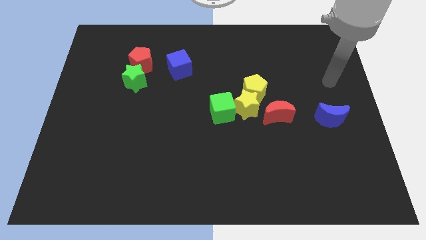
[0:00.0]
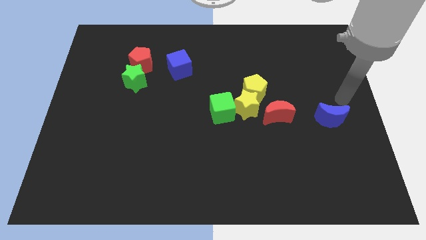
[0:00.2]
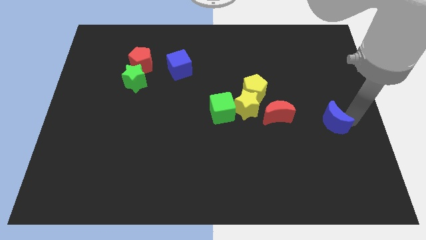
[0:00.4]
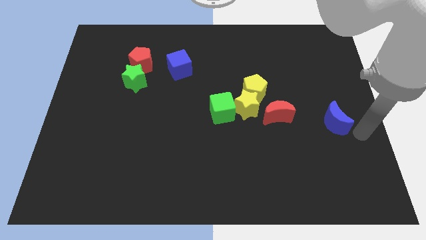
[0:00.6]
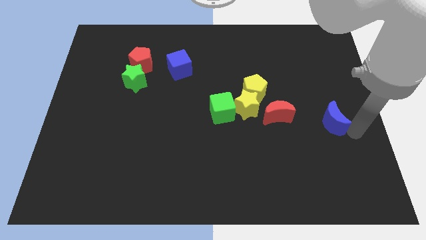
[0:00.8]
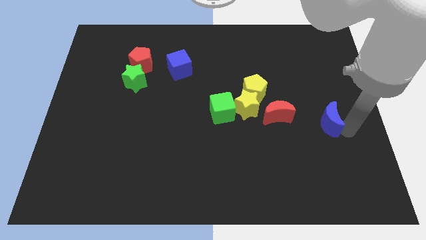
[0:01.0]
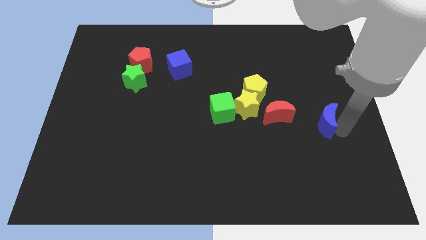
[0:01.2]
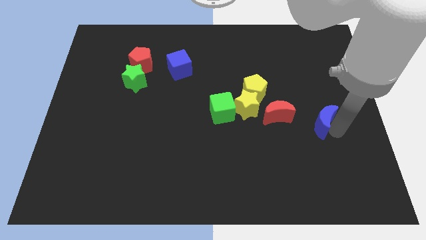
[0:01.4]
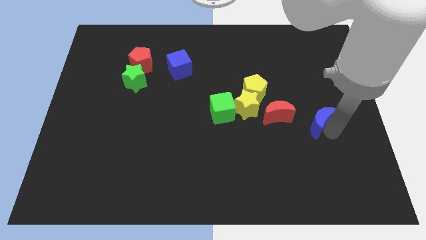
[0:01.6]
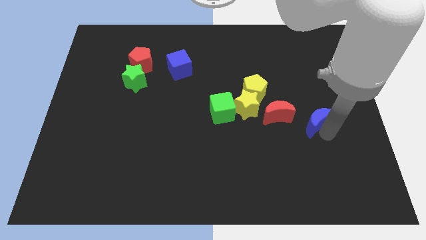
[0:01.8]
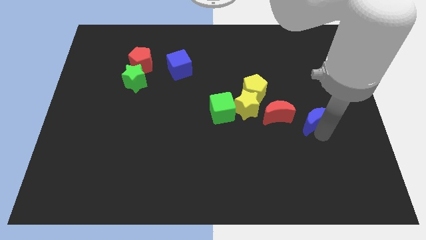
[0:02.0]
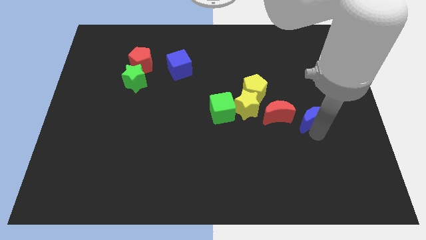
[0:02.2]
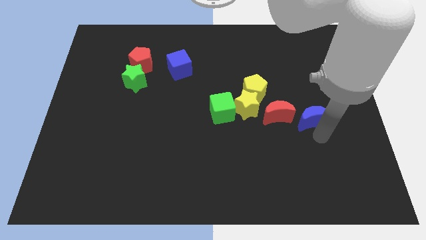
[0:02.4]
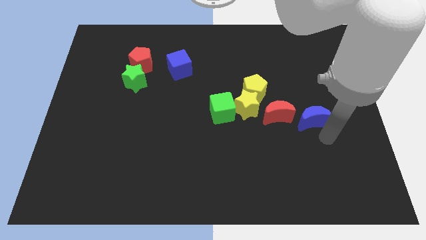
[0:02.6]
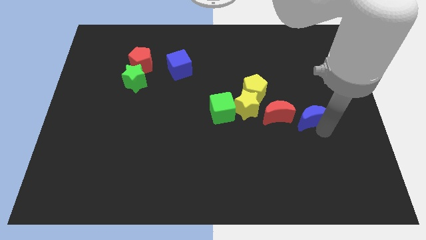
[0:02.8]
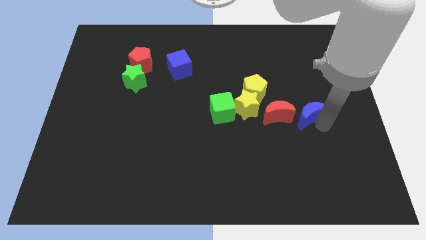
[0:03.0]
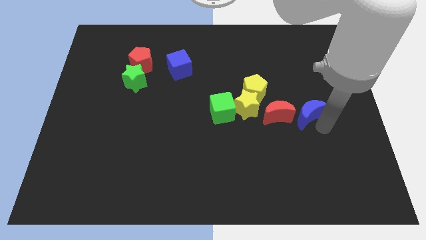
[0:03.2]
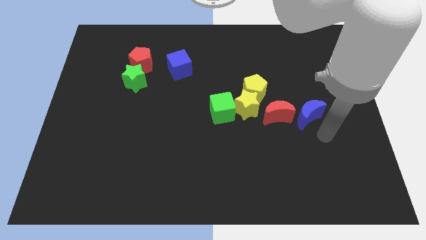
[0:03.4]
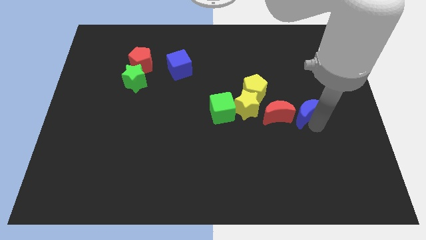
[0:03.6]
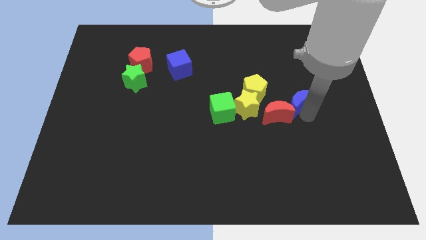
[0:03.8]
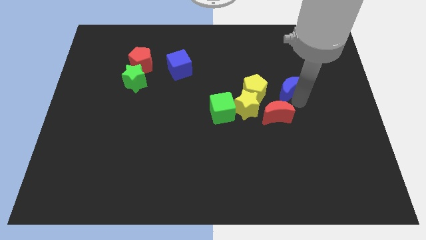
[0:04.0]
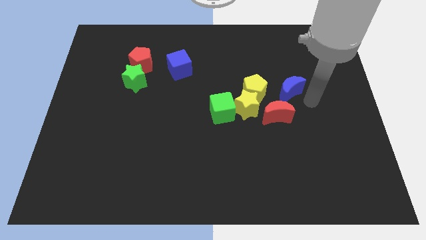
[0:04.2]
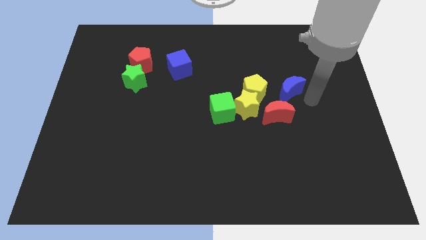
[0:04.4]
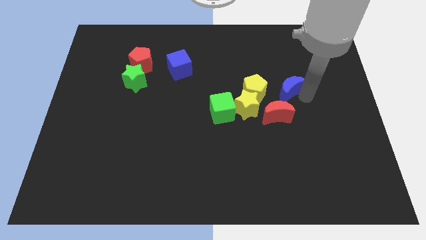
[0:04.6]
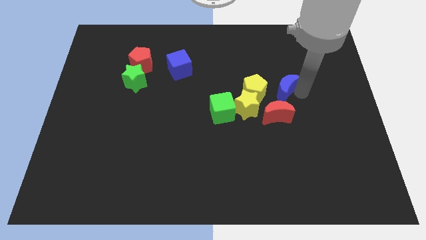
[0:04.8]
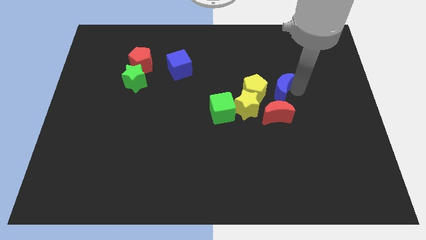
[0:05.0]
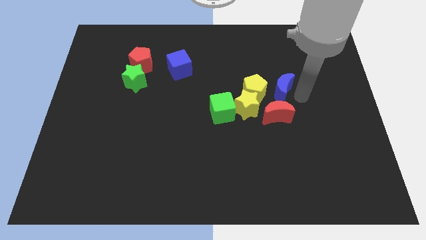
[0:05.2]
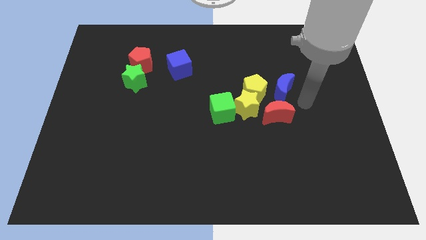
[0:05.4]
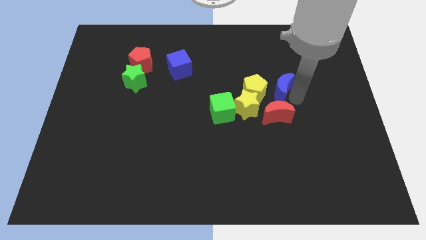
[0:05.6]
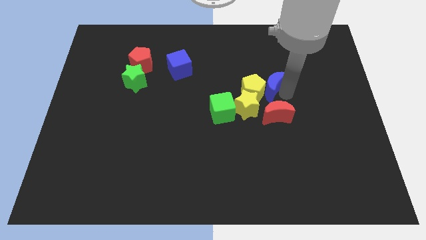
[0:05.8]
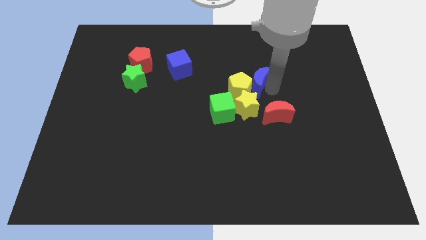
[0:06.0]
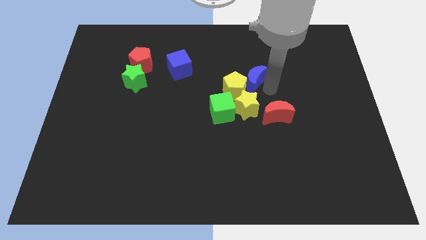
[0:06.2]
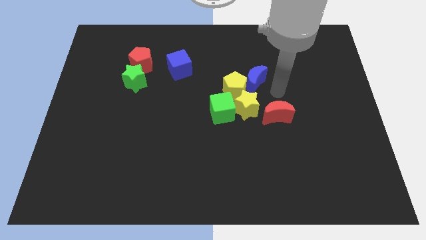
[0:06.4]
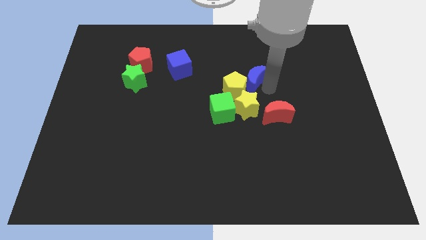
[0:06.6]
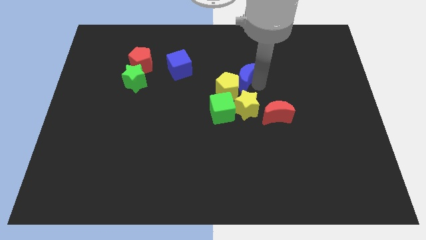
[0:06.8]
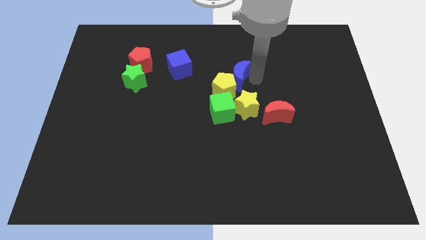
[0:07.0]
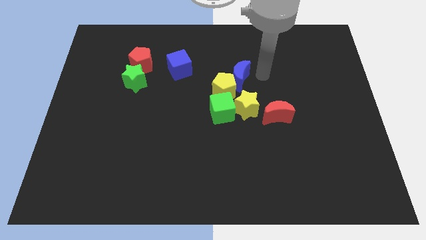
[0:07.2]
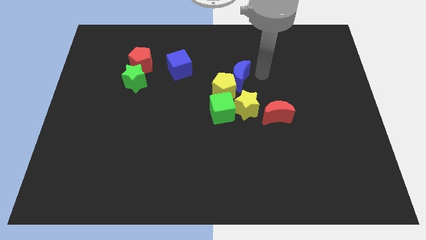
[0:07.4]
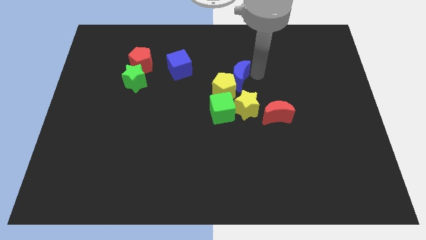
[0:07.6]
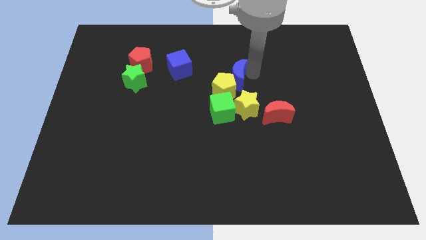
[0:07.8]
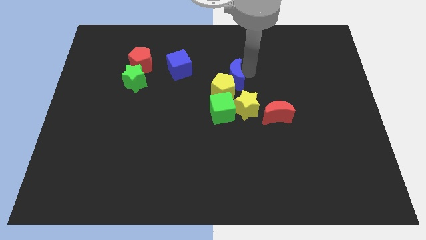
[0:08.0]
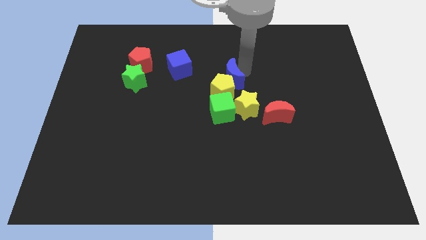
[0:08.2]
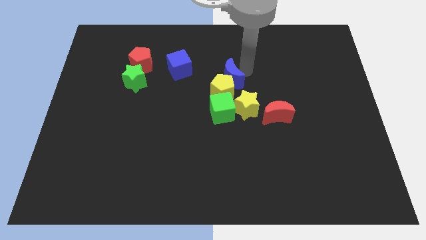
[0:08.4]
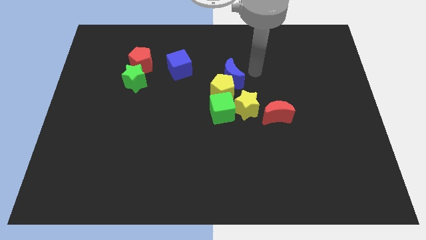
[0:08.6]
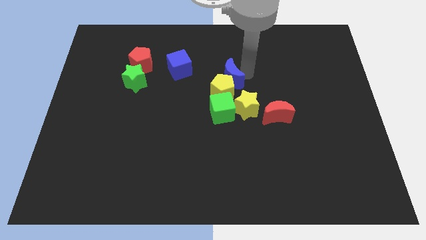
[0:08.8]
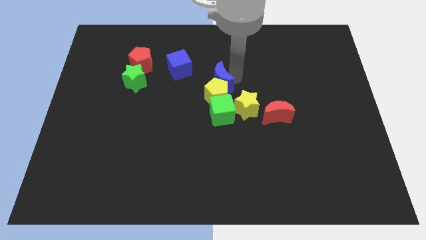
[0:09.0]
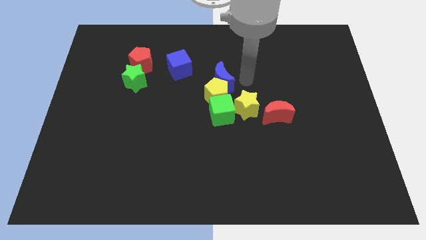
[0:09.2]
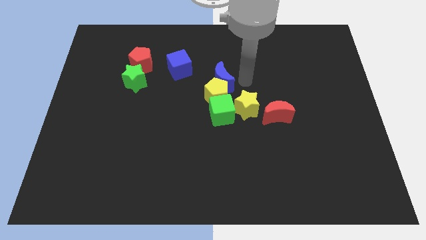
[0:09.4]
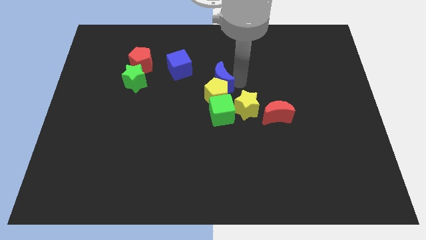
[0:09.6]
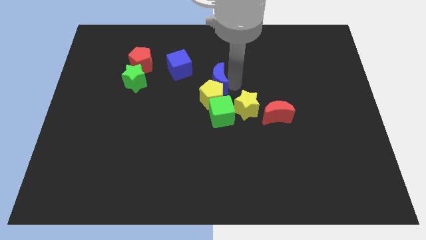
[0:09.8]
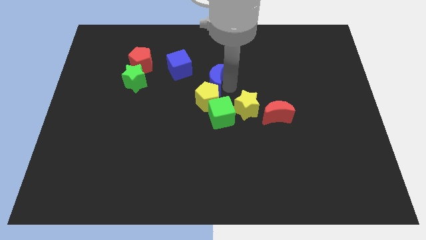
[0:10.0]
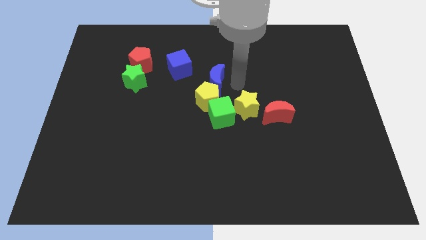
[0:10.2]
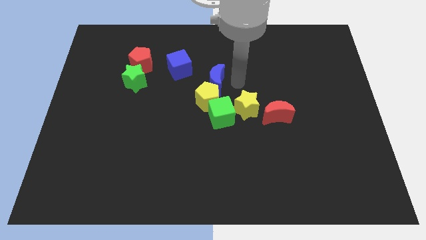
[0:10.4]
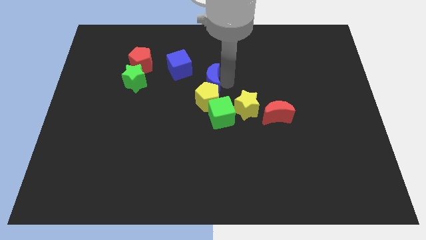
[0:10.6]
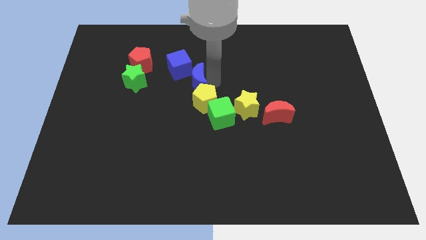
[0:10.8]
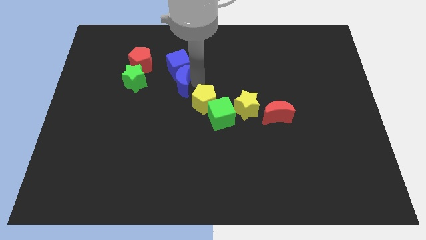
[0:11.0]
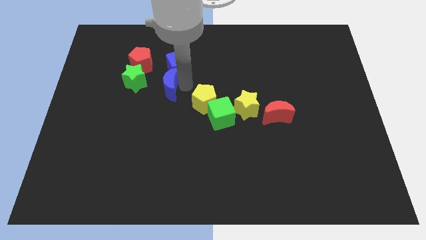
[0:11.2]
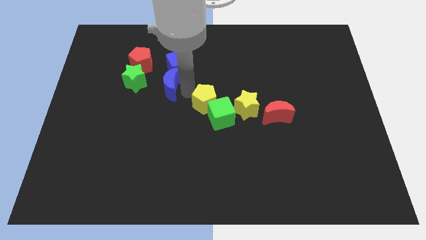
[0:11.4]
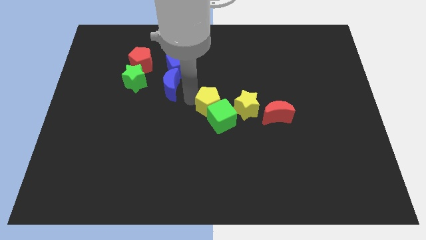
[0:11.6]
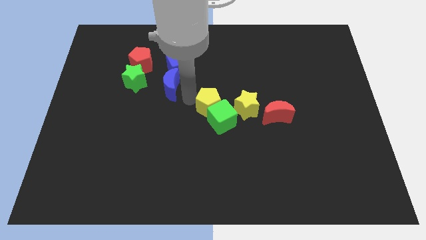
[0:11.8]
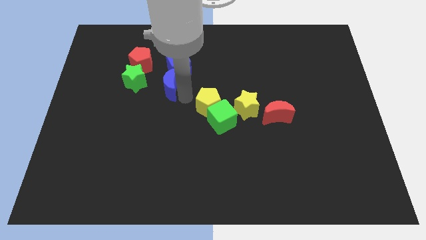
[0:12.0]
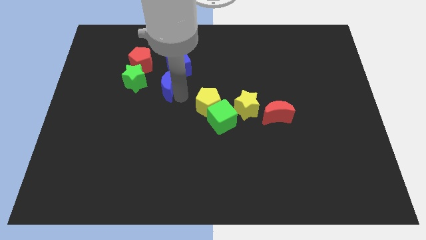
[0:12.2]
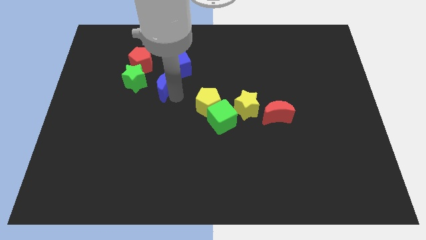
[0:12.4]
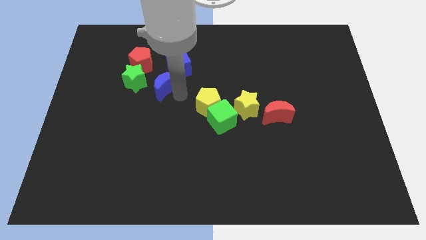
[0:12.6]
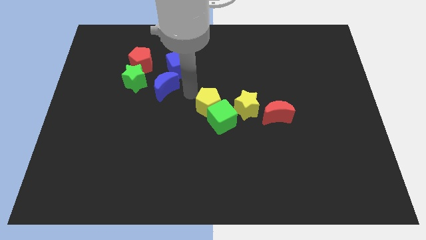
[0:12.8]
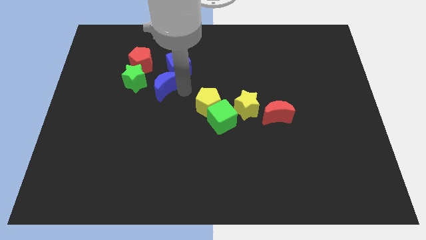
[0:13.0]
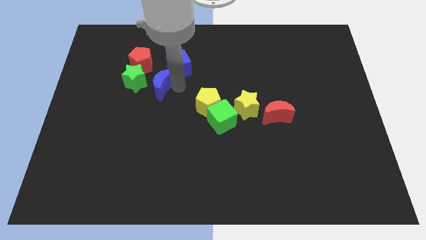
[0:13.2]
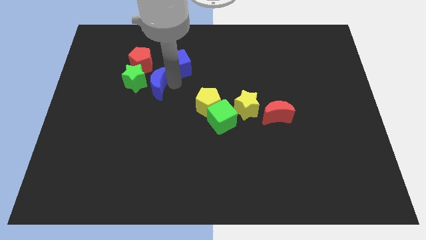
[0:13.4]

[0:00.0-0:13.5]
push the blue moon to the green star
